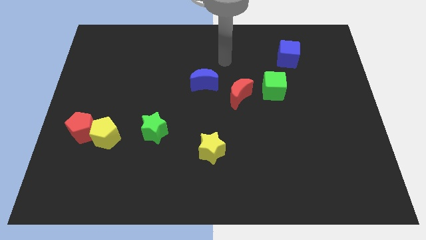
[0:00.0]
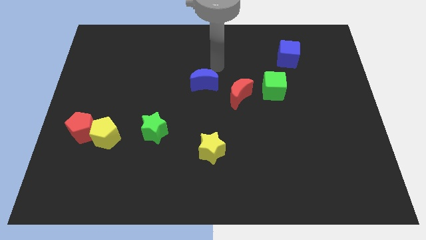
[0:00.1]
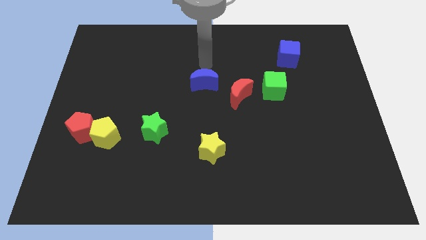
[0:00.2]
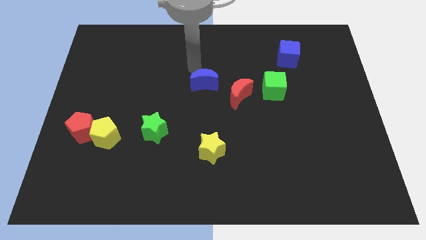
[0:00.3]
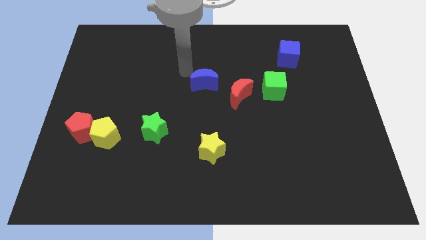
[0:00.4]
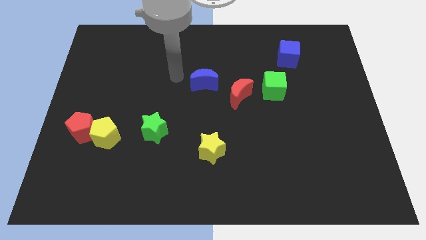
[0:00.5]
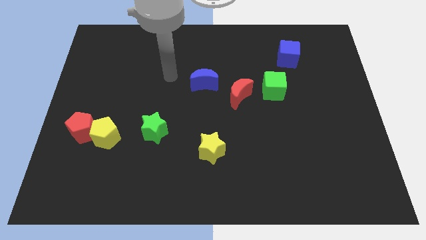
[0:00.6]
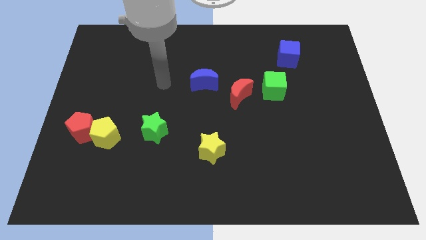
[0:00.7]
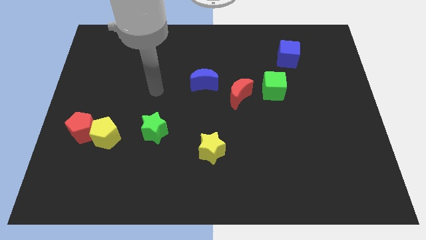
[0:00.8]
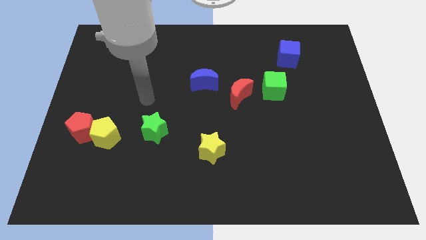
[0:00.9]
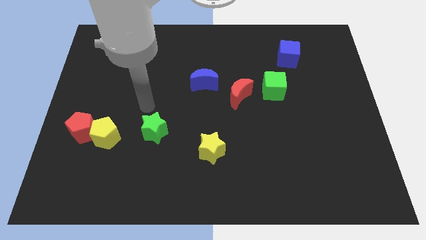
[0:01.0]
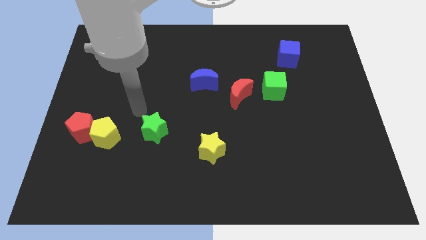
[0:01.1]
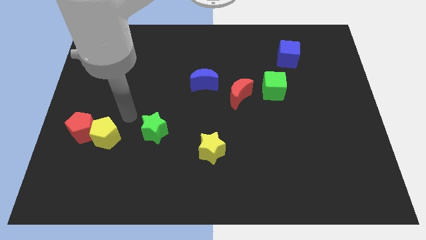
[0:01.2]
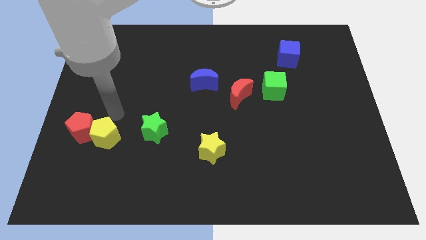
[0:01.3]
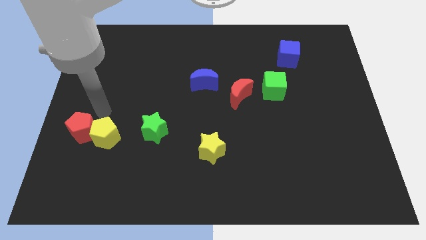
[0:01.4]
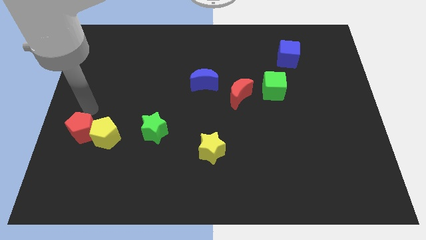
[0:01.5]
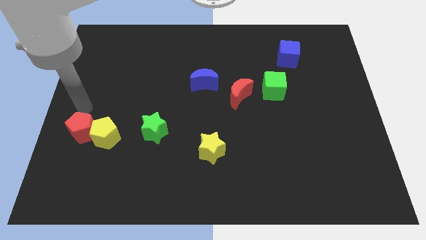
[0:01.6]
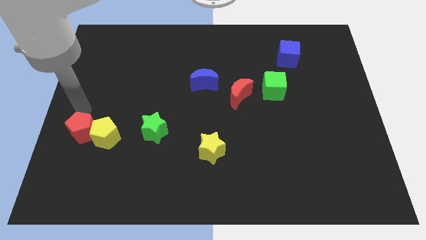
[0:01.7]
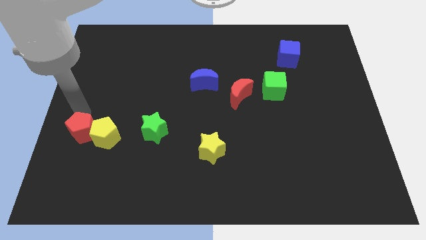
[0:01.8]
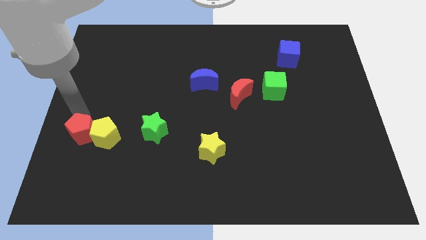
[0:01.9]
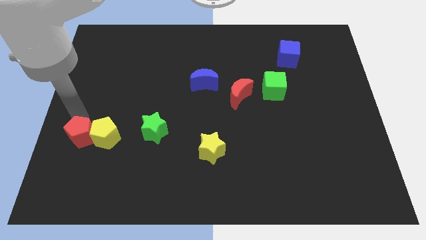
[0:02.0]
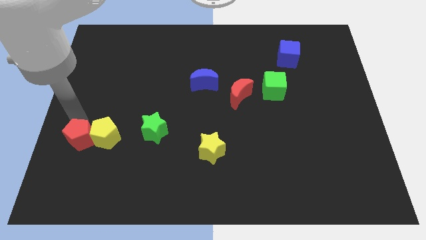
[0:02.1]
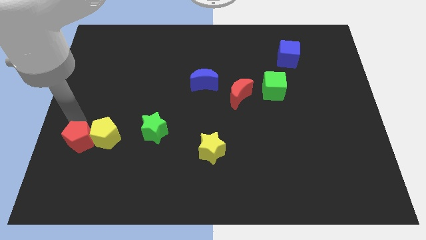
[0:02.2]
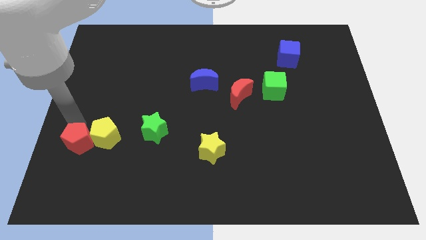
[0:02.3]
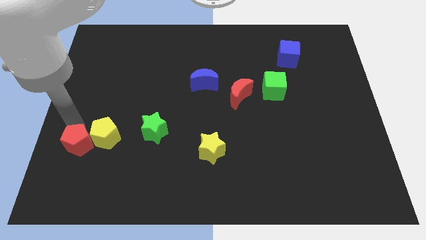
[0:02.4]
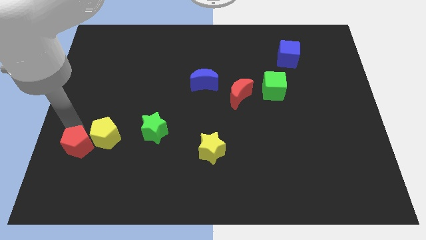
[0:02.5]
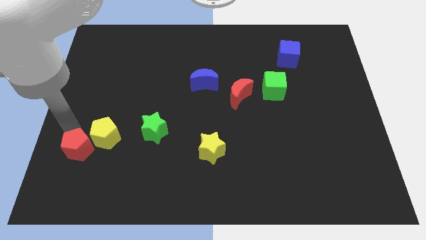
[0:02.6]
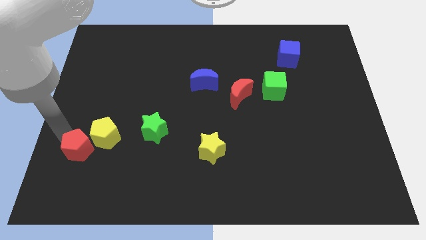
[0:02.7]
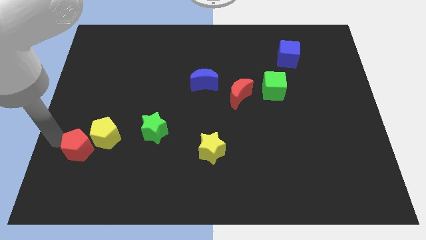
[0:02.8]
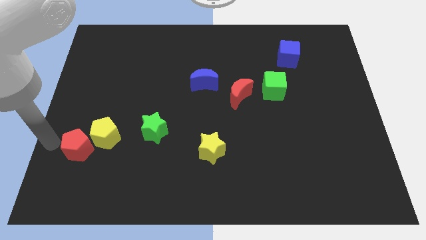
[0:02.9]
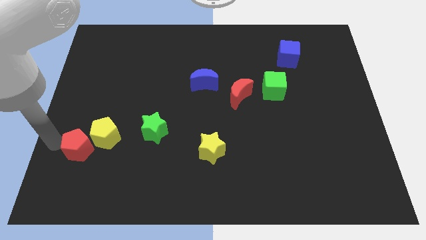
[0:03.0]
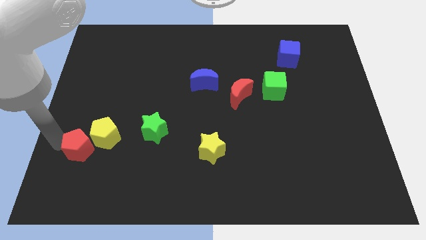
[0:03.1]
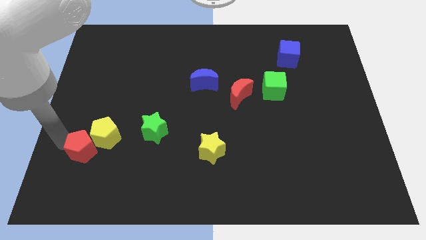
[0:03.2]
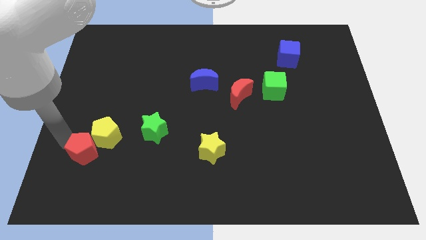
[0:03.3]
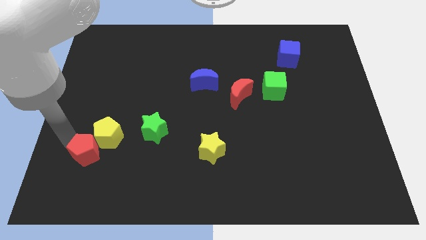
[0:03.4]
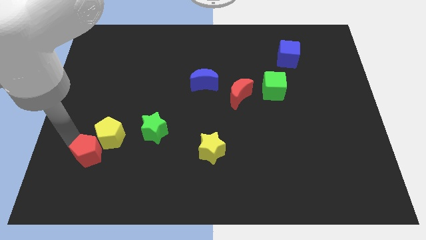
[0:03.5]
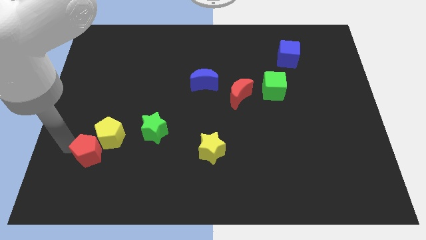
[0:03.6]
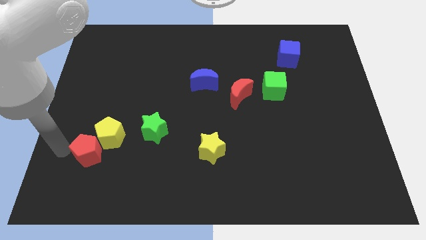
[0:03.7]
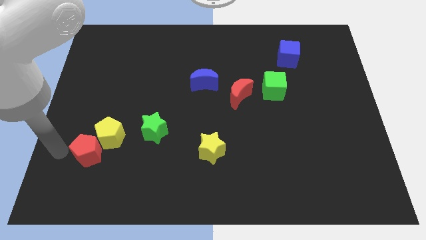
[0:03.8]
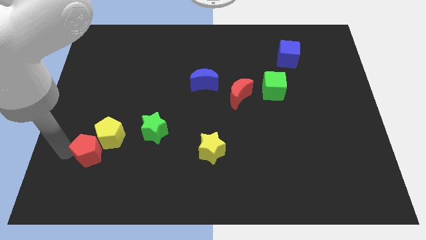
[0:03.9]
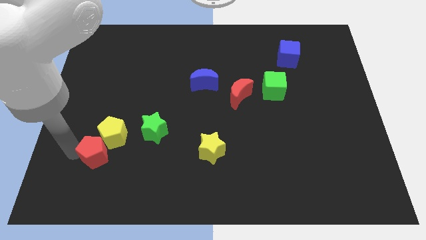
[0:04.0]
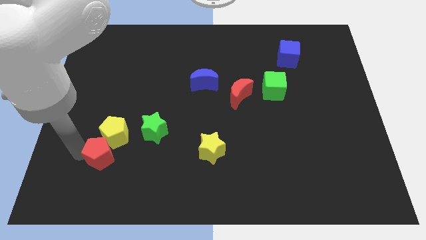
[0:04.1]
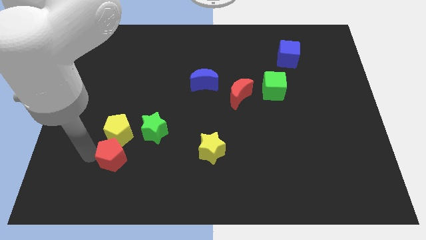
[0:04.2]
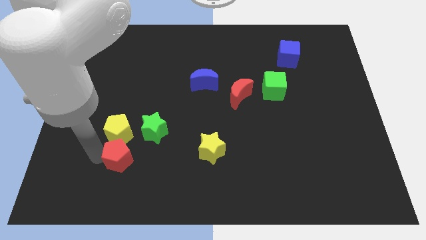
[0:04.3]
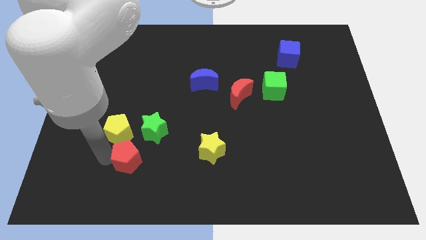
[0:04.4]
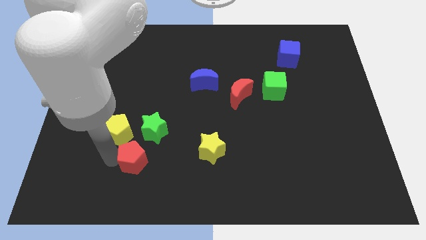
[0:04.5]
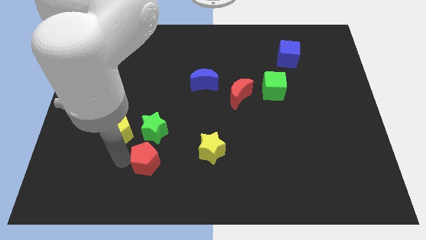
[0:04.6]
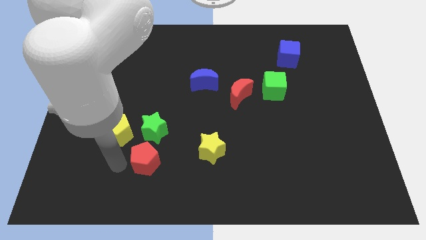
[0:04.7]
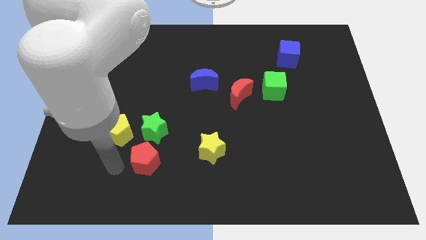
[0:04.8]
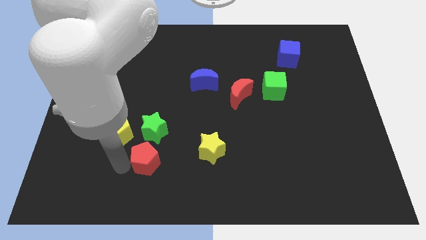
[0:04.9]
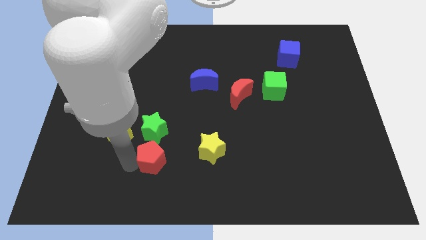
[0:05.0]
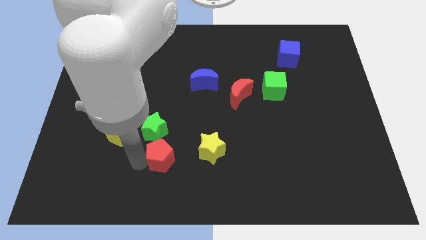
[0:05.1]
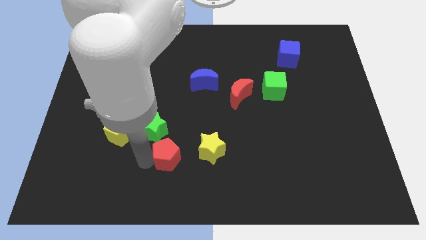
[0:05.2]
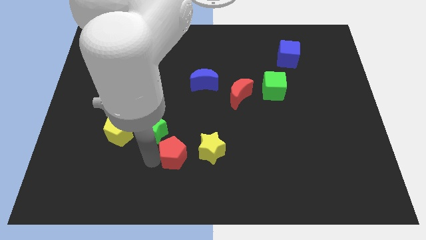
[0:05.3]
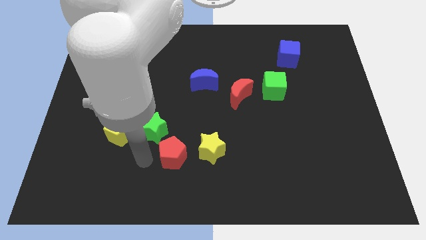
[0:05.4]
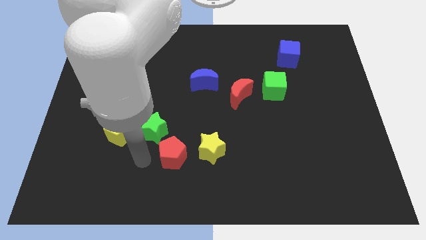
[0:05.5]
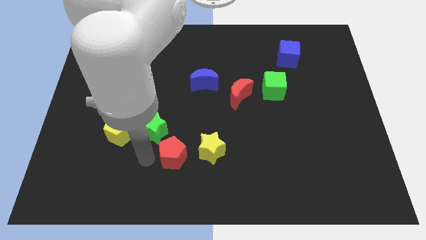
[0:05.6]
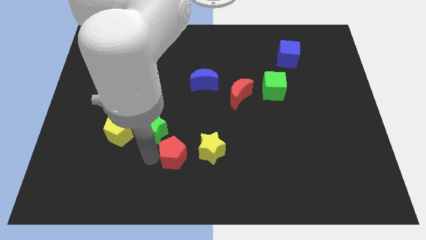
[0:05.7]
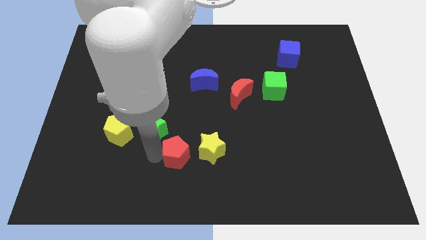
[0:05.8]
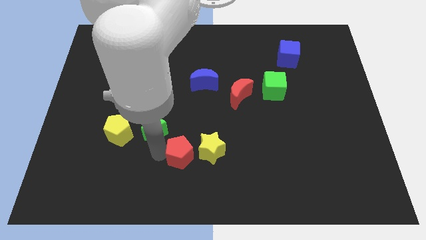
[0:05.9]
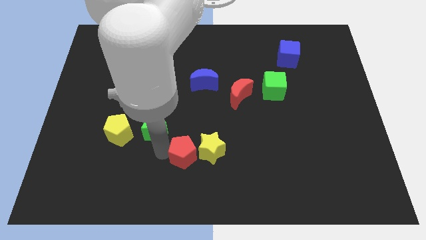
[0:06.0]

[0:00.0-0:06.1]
move the red pentagon towards the yellow star
